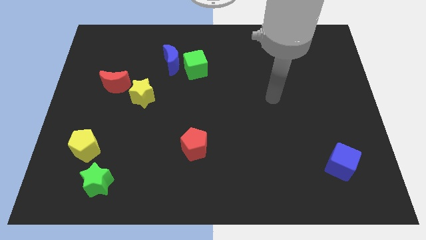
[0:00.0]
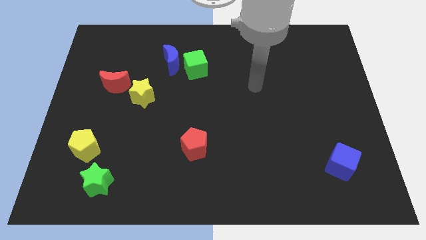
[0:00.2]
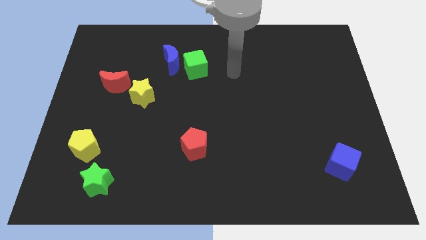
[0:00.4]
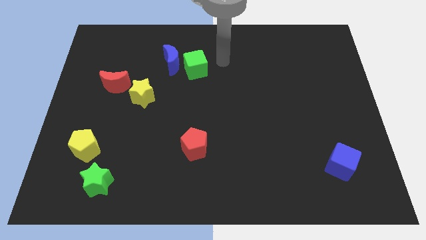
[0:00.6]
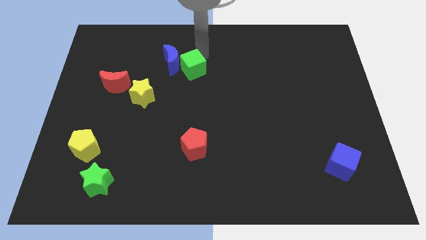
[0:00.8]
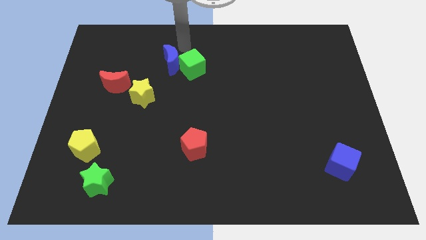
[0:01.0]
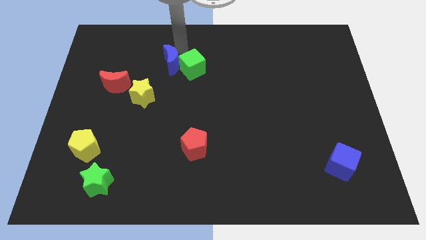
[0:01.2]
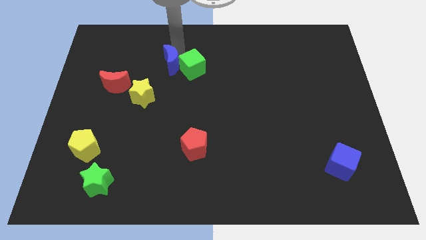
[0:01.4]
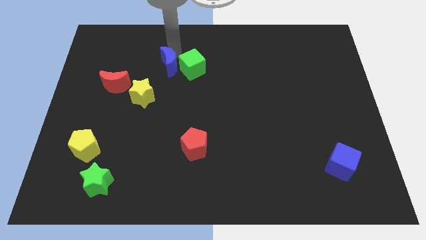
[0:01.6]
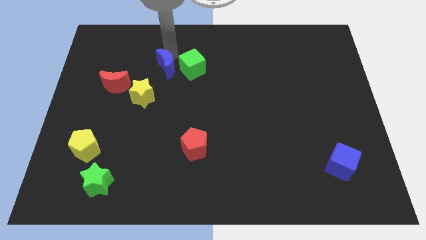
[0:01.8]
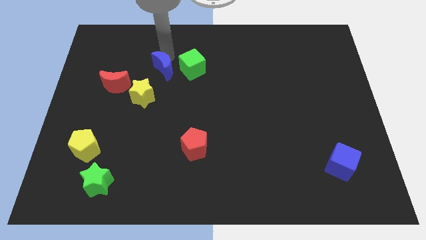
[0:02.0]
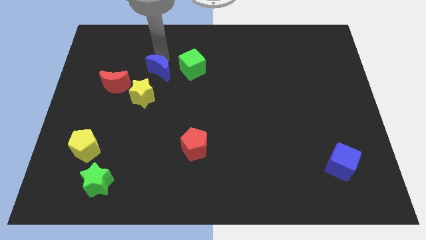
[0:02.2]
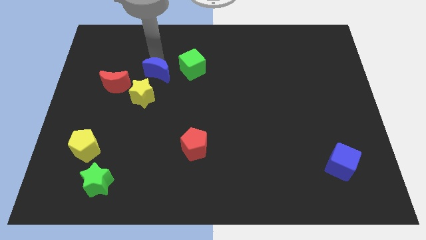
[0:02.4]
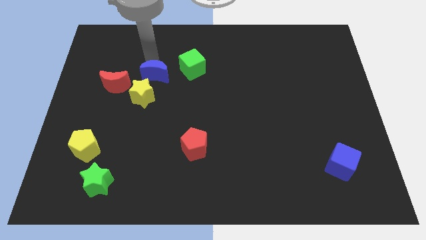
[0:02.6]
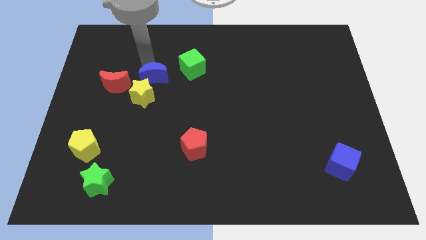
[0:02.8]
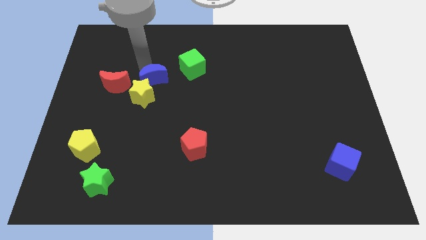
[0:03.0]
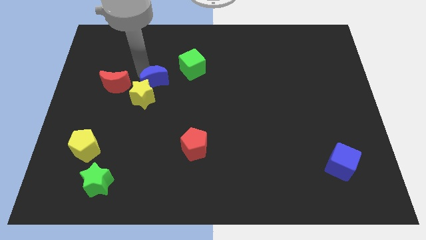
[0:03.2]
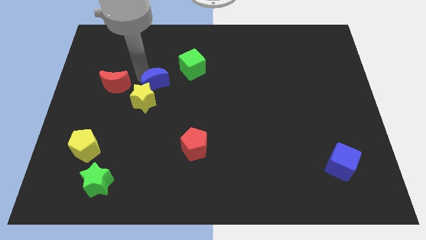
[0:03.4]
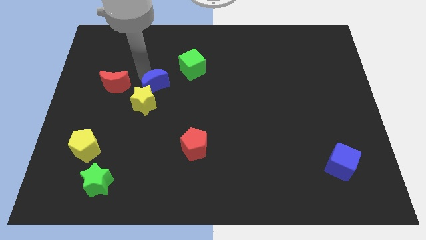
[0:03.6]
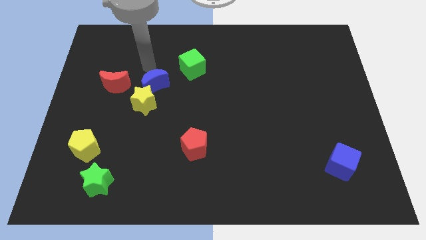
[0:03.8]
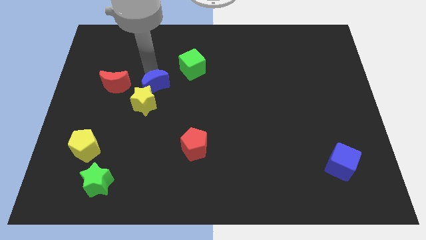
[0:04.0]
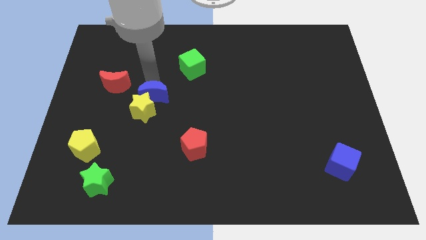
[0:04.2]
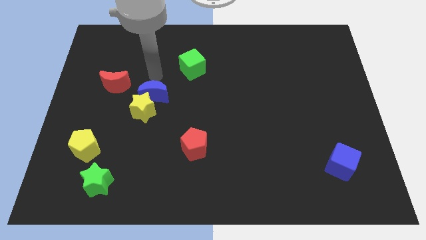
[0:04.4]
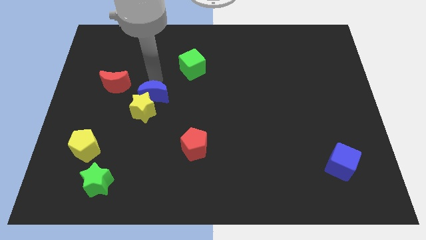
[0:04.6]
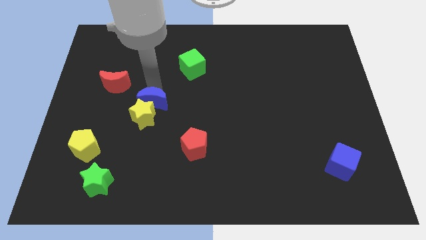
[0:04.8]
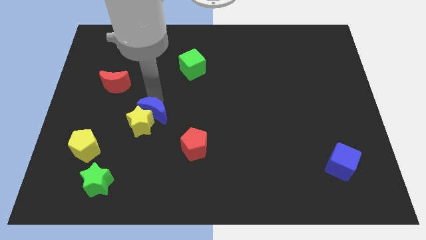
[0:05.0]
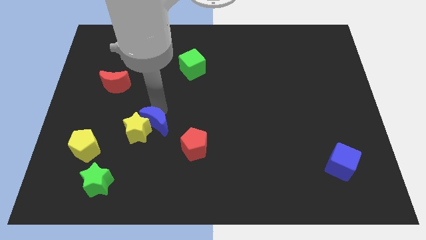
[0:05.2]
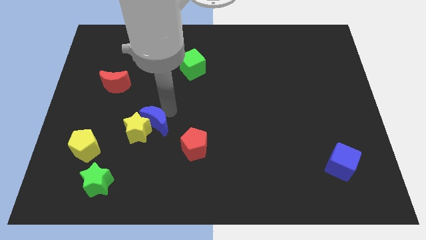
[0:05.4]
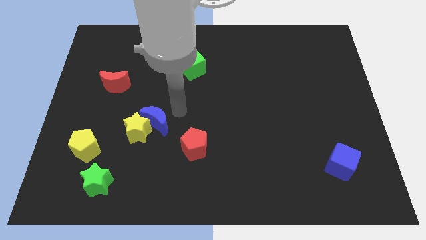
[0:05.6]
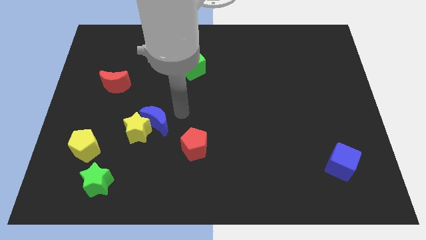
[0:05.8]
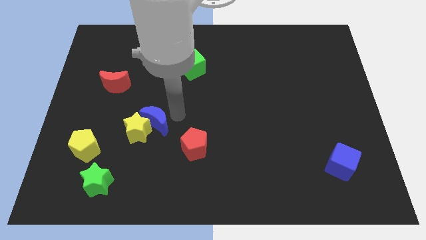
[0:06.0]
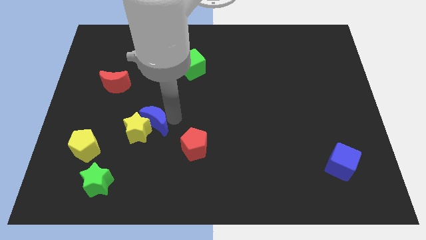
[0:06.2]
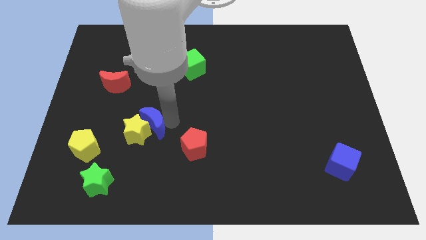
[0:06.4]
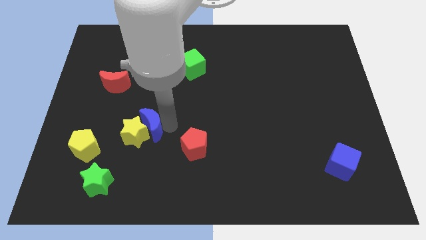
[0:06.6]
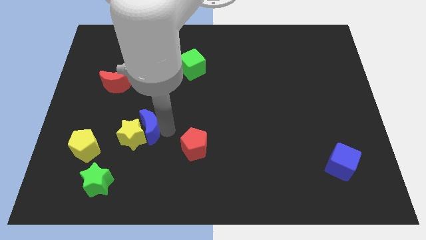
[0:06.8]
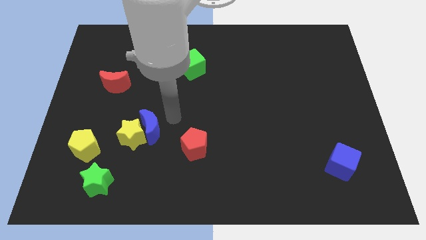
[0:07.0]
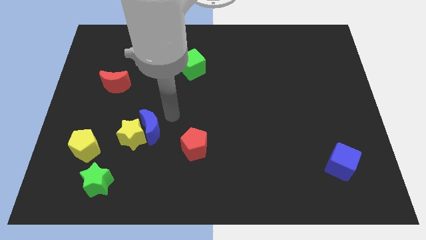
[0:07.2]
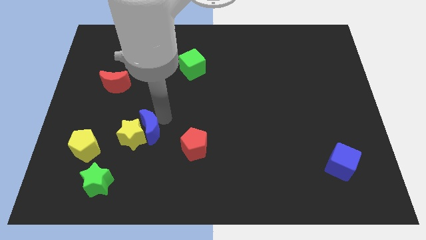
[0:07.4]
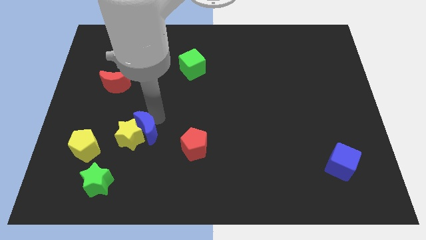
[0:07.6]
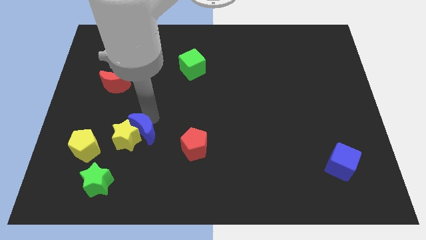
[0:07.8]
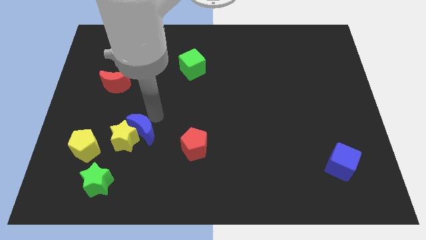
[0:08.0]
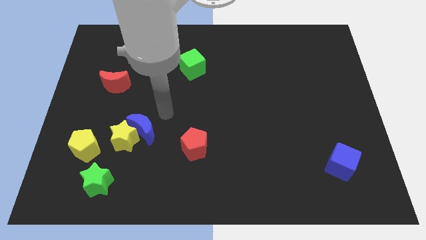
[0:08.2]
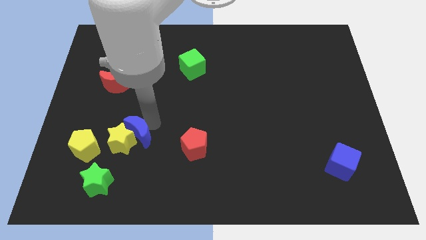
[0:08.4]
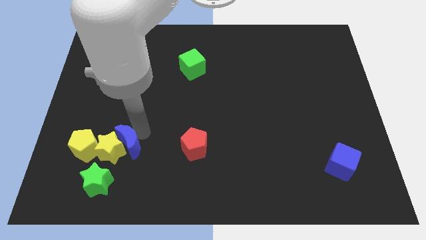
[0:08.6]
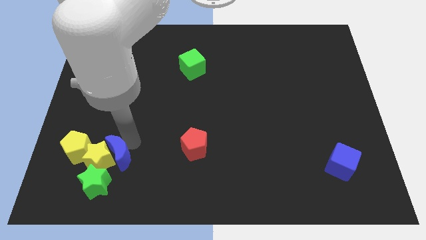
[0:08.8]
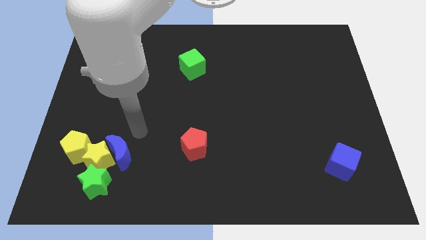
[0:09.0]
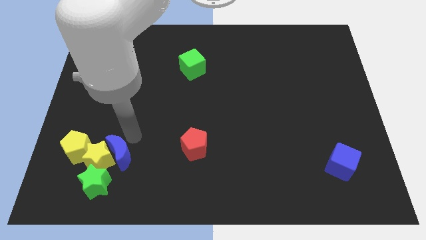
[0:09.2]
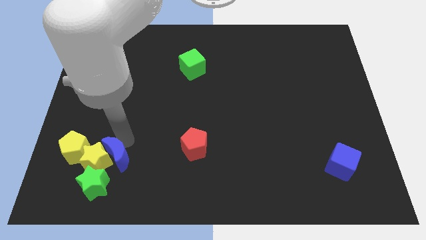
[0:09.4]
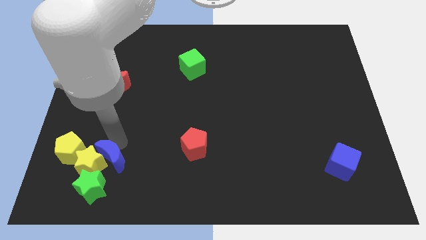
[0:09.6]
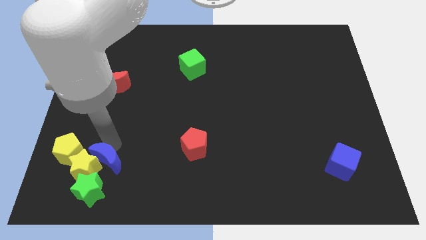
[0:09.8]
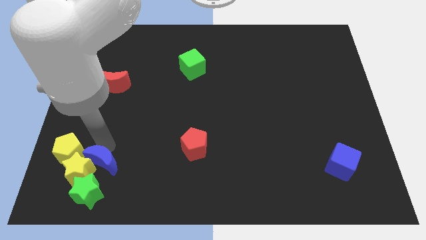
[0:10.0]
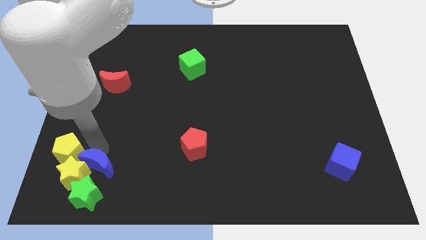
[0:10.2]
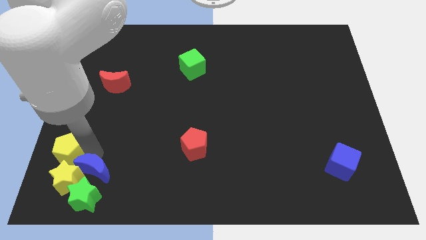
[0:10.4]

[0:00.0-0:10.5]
push the blue moon towards the green star

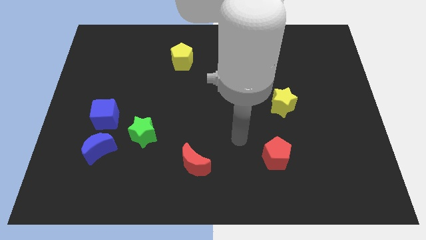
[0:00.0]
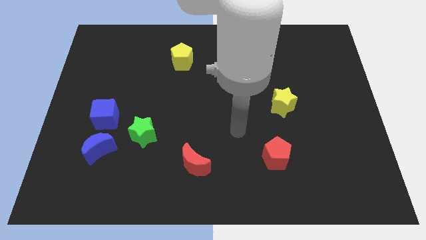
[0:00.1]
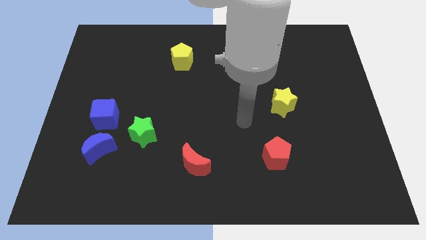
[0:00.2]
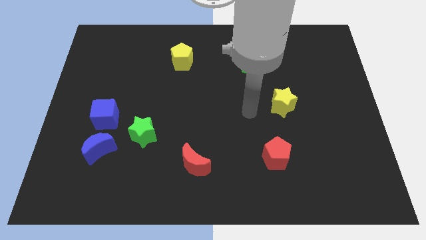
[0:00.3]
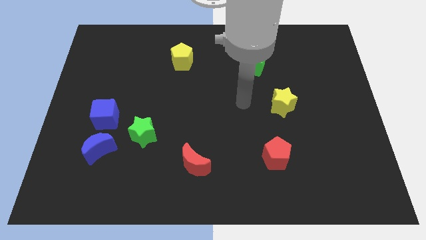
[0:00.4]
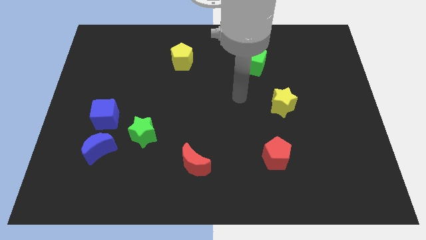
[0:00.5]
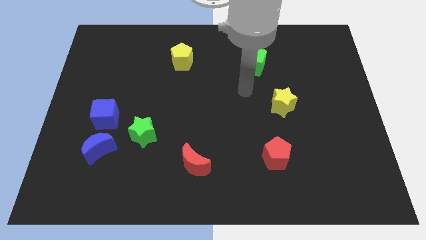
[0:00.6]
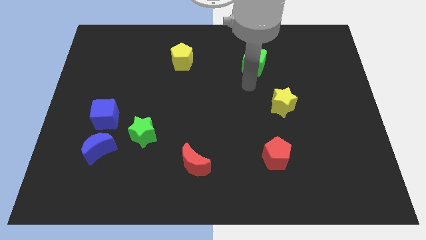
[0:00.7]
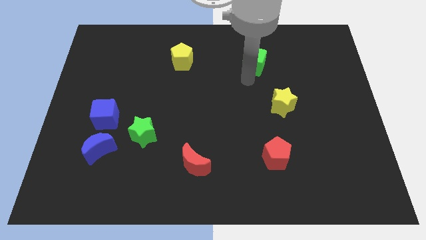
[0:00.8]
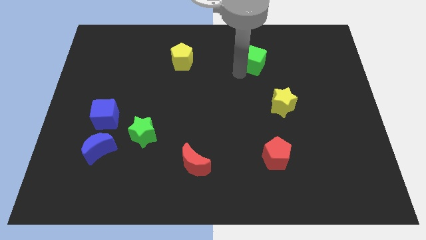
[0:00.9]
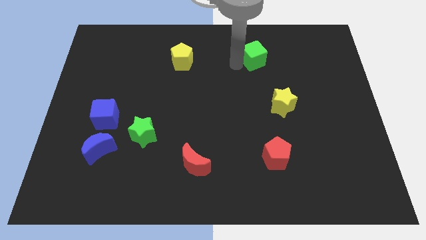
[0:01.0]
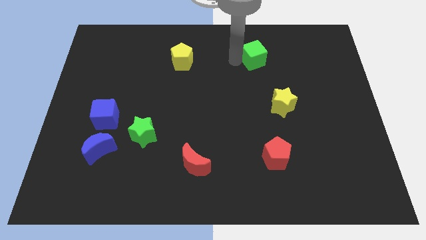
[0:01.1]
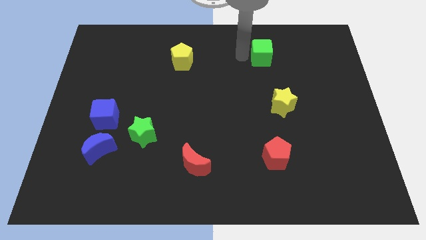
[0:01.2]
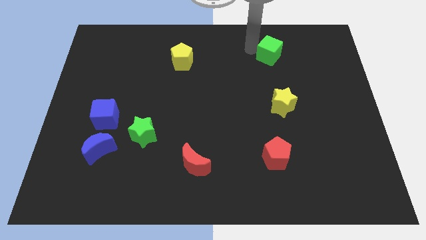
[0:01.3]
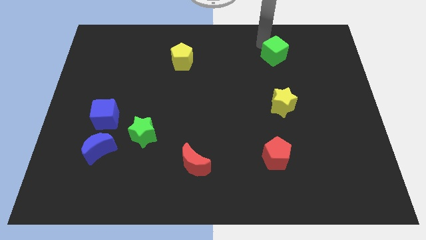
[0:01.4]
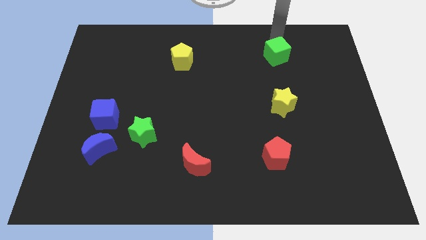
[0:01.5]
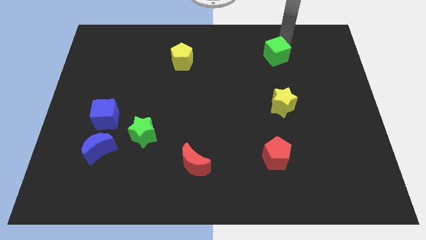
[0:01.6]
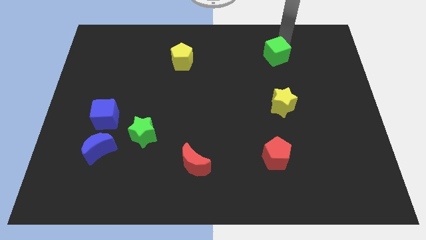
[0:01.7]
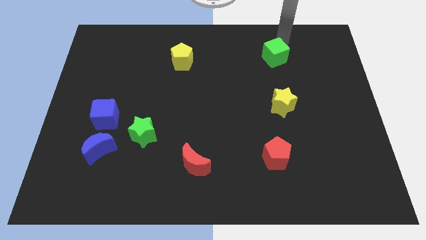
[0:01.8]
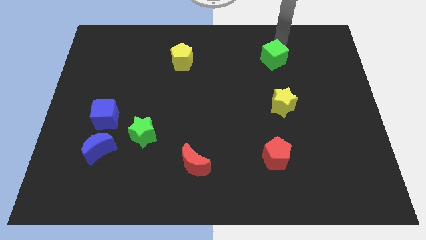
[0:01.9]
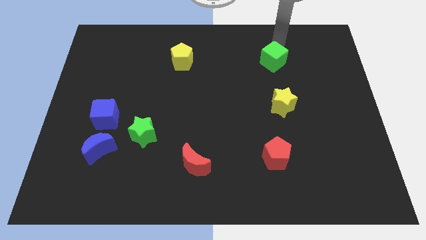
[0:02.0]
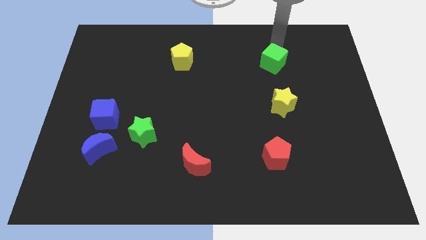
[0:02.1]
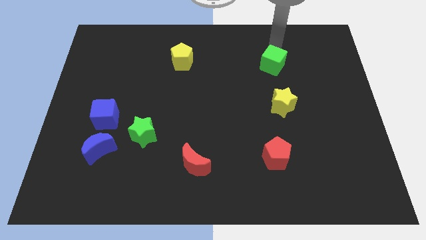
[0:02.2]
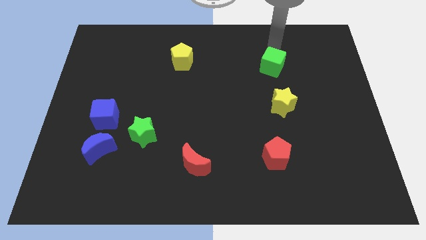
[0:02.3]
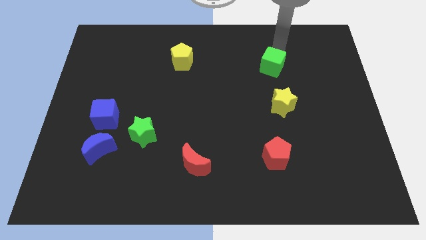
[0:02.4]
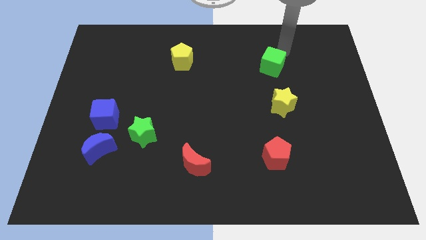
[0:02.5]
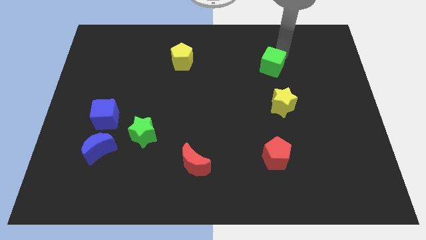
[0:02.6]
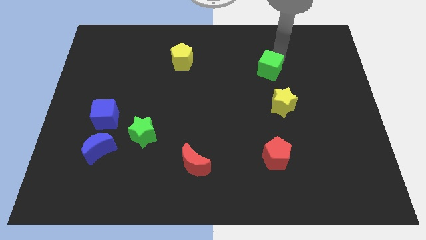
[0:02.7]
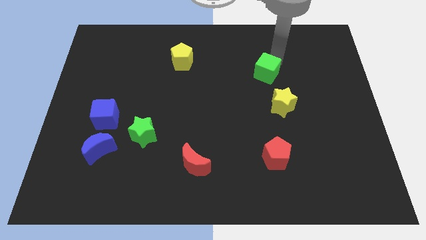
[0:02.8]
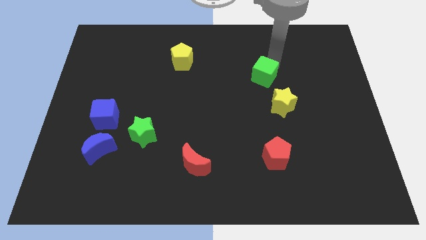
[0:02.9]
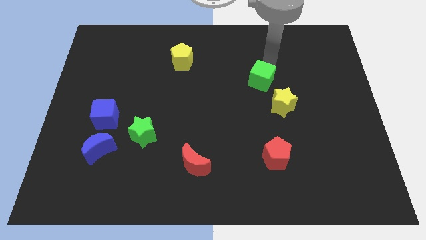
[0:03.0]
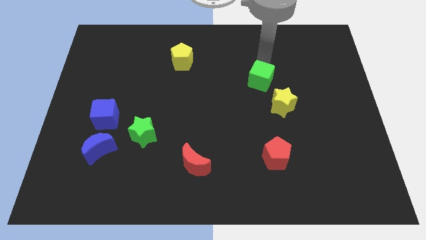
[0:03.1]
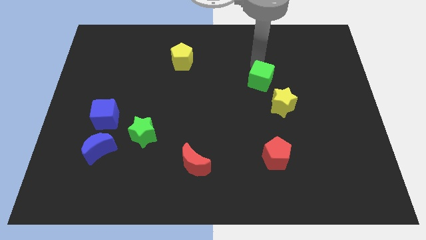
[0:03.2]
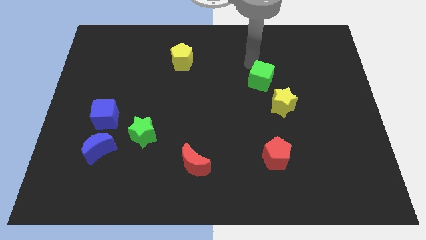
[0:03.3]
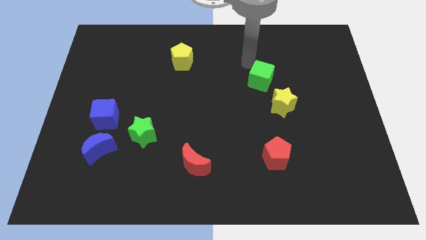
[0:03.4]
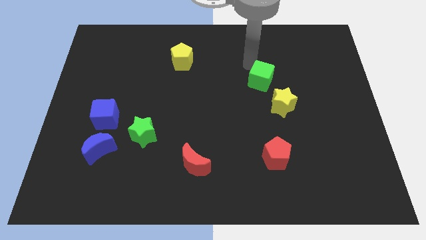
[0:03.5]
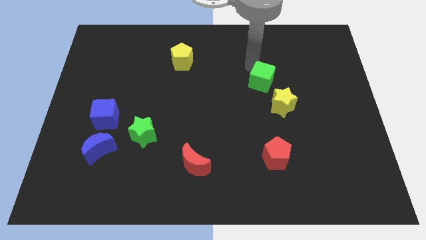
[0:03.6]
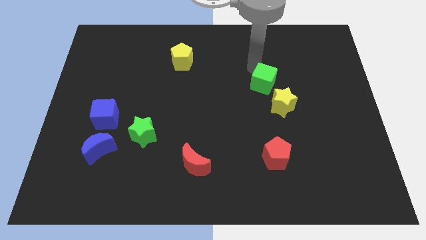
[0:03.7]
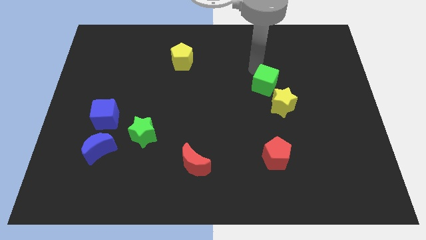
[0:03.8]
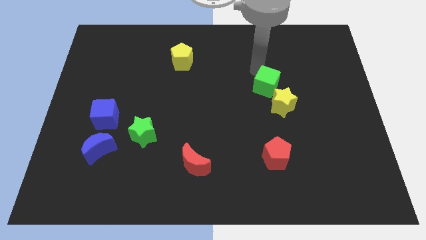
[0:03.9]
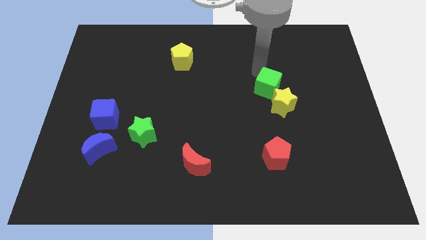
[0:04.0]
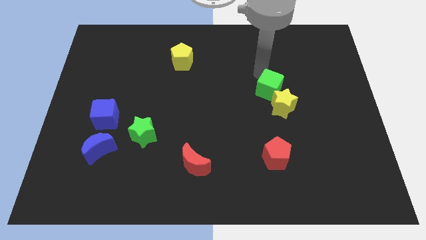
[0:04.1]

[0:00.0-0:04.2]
move the green cube close to the yellow star
